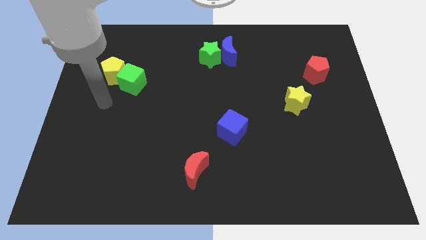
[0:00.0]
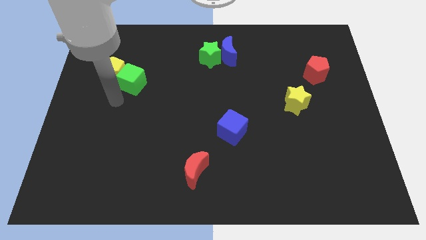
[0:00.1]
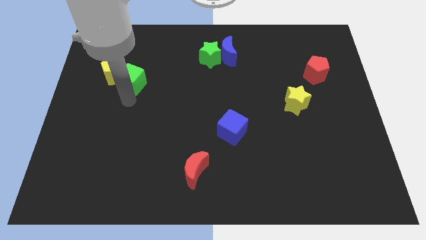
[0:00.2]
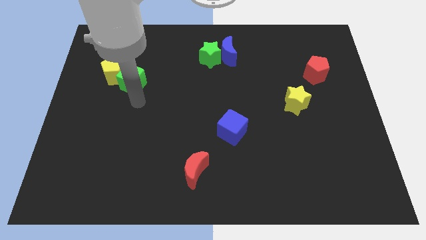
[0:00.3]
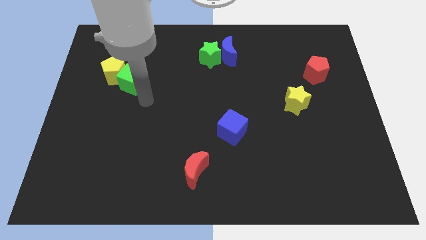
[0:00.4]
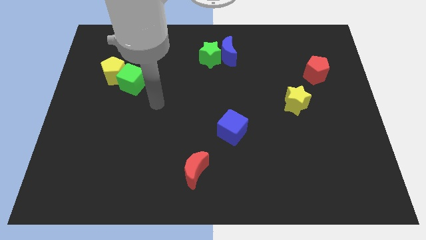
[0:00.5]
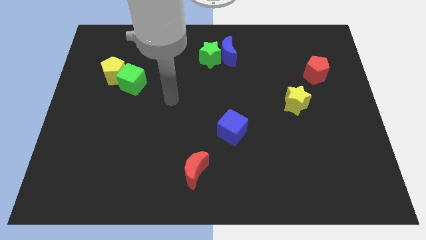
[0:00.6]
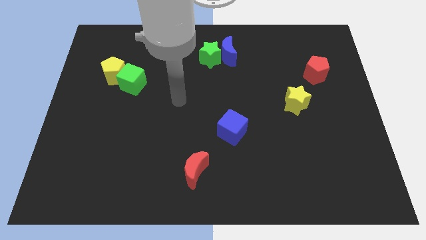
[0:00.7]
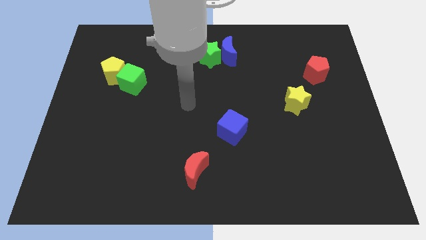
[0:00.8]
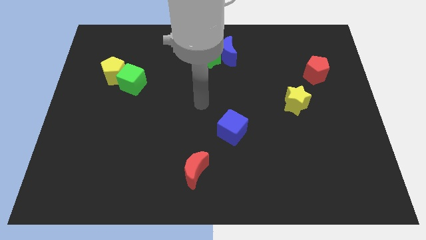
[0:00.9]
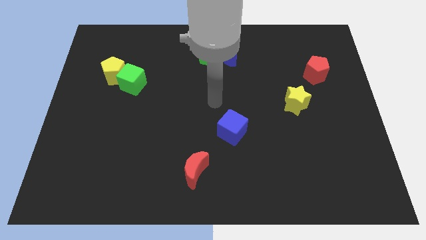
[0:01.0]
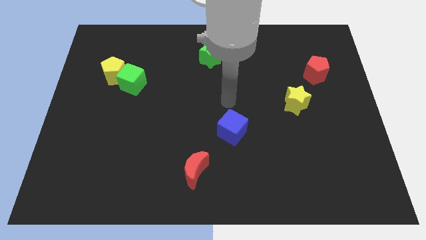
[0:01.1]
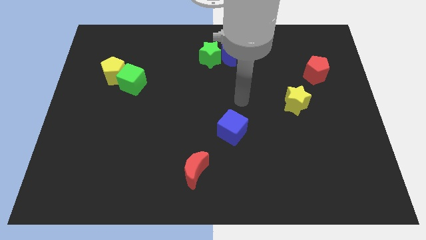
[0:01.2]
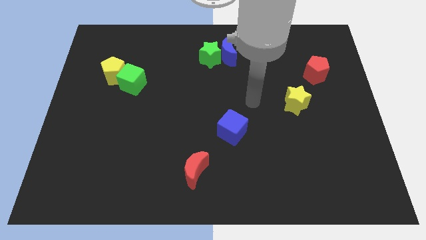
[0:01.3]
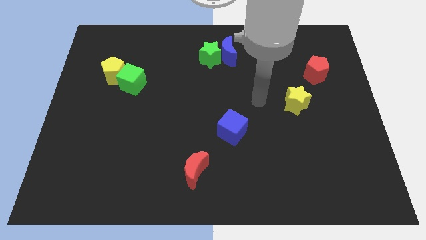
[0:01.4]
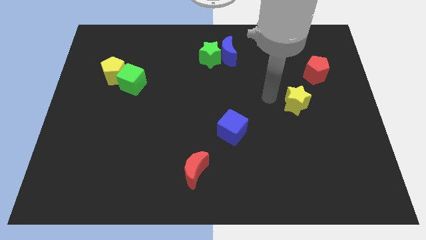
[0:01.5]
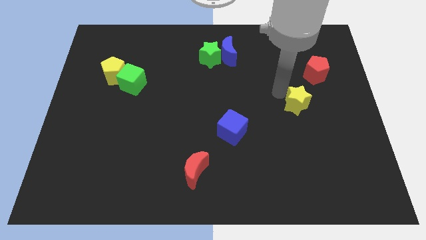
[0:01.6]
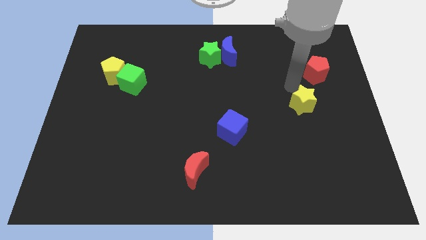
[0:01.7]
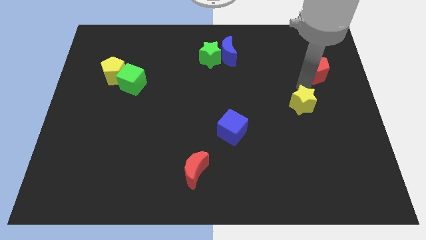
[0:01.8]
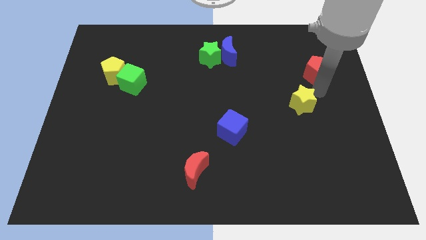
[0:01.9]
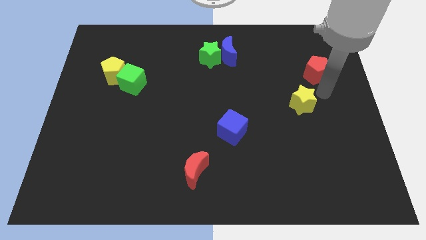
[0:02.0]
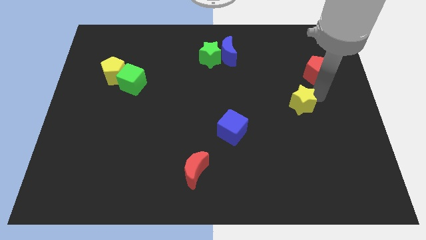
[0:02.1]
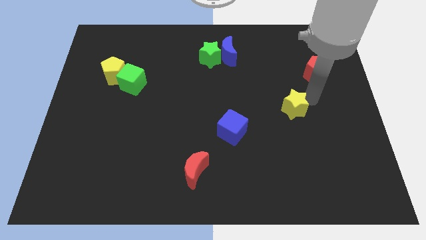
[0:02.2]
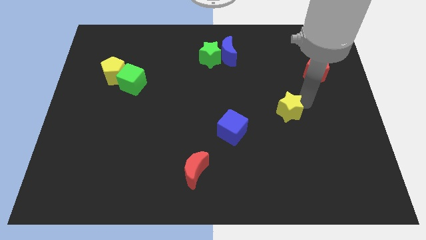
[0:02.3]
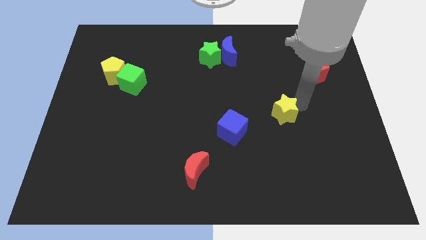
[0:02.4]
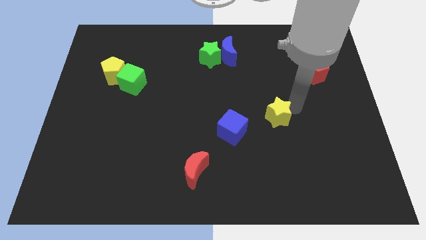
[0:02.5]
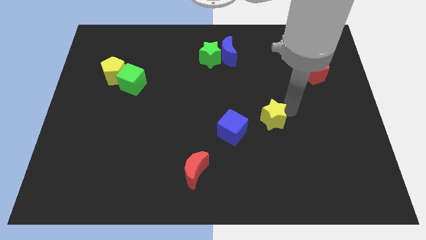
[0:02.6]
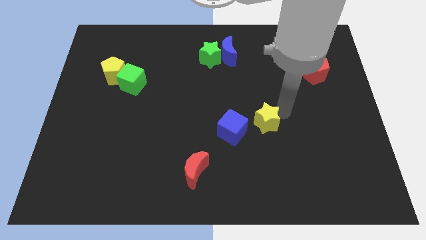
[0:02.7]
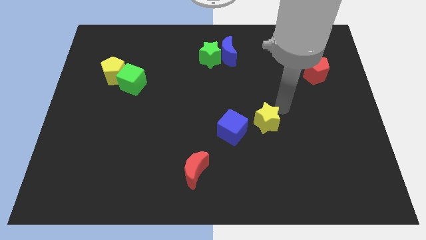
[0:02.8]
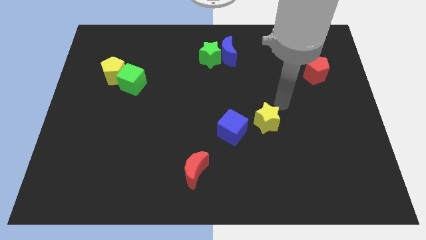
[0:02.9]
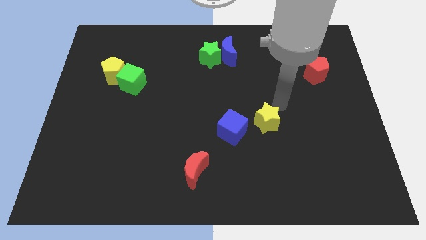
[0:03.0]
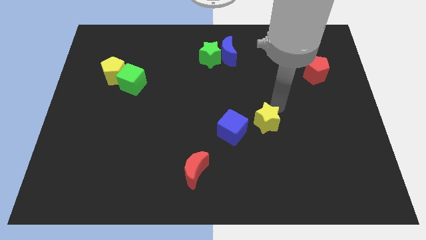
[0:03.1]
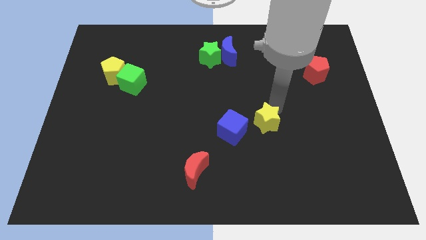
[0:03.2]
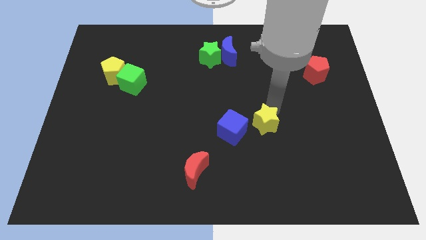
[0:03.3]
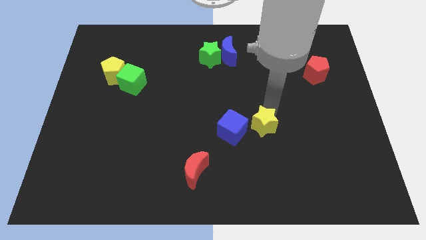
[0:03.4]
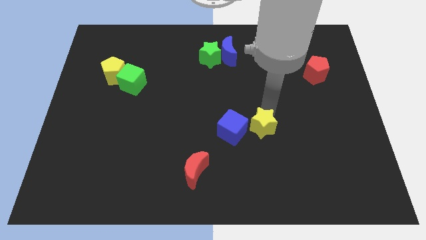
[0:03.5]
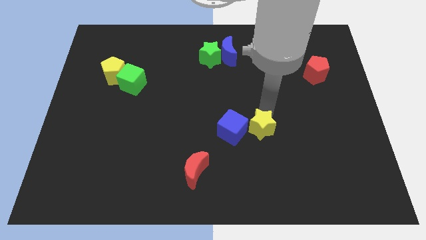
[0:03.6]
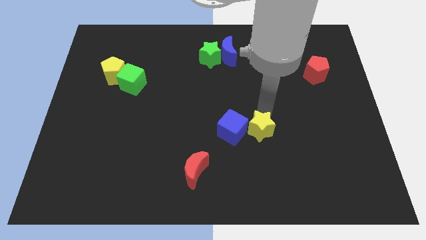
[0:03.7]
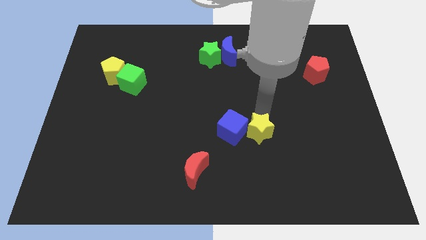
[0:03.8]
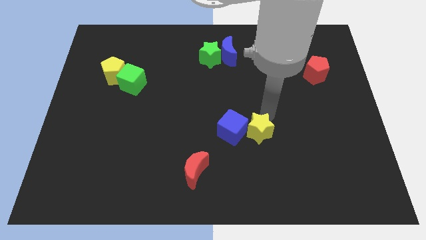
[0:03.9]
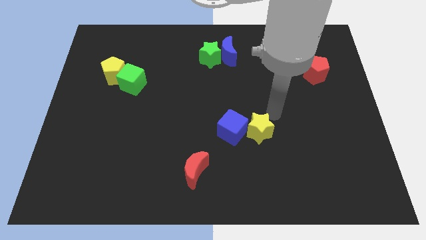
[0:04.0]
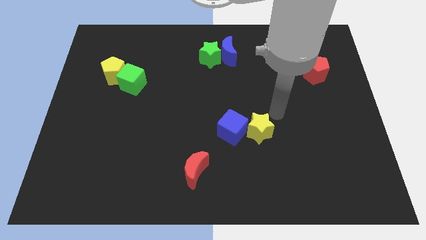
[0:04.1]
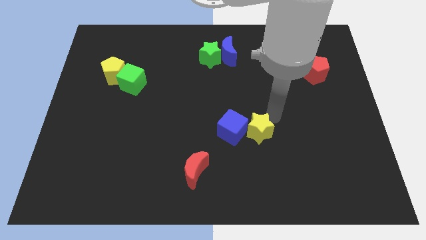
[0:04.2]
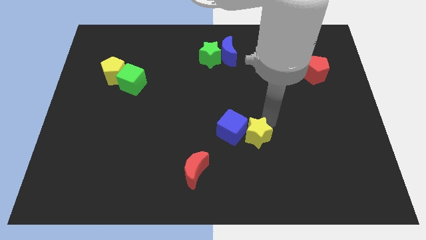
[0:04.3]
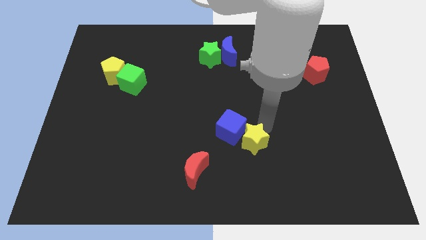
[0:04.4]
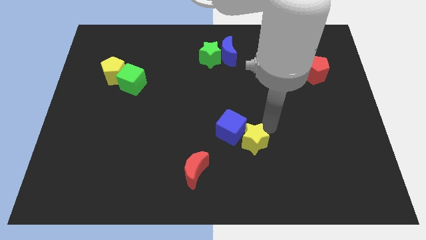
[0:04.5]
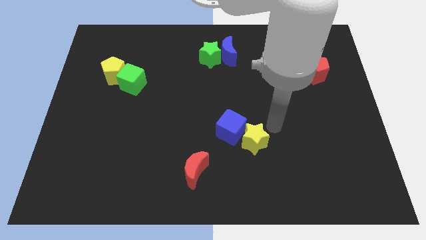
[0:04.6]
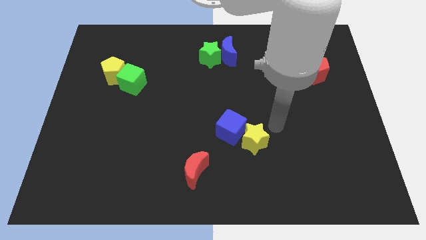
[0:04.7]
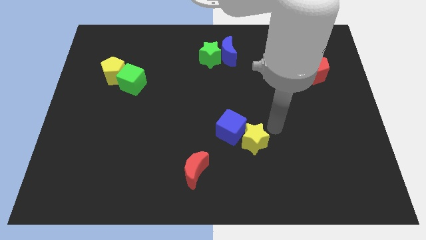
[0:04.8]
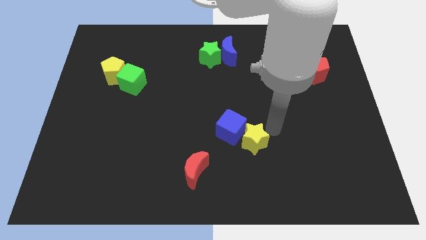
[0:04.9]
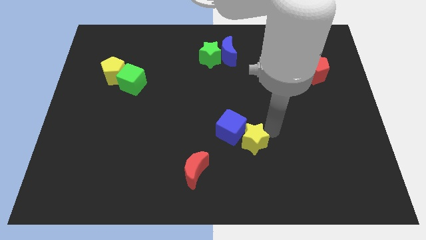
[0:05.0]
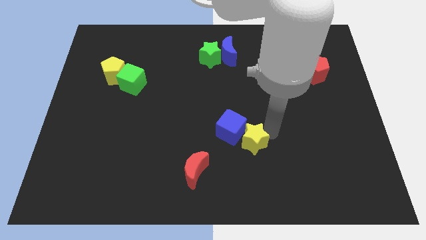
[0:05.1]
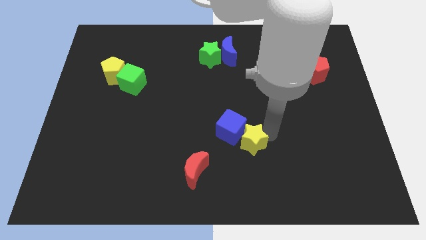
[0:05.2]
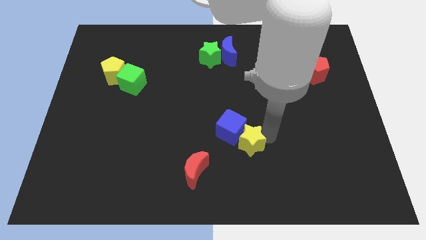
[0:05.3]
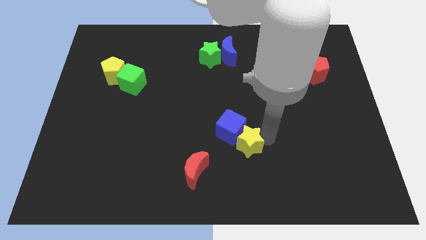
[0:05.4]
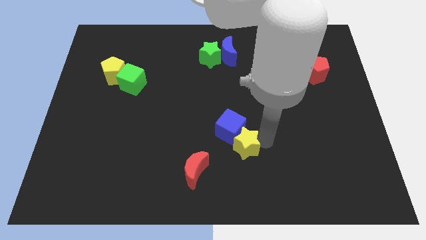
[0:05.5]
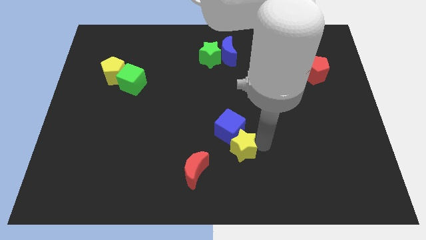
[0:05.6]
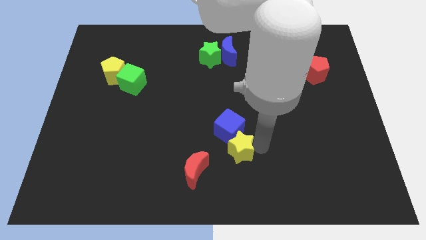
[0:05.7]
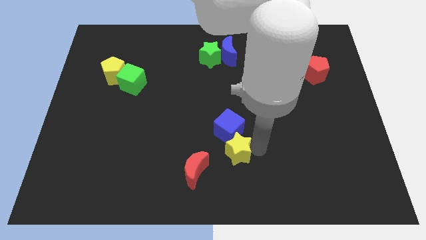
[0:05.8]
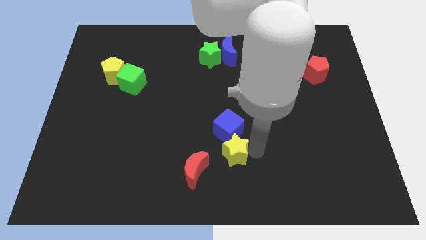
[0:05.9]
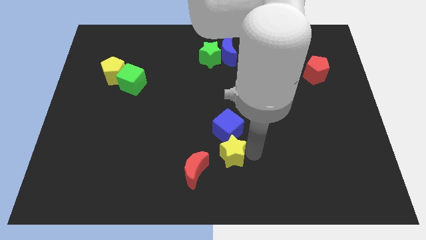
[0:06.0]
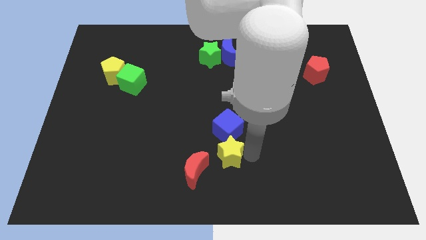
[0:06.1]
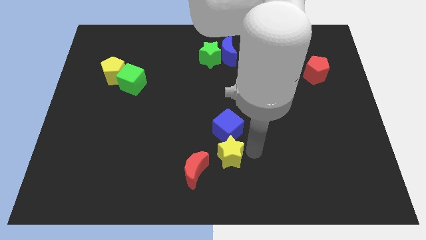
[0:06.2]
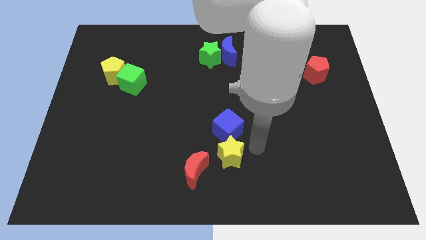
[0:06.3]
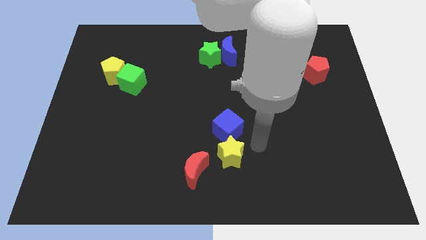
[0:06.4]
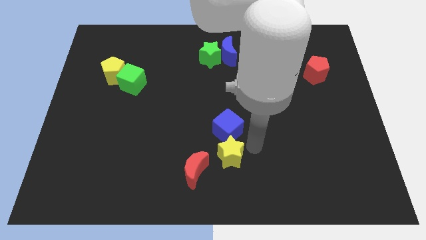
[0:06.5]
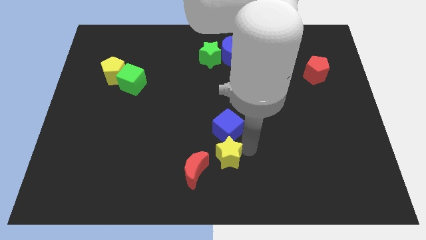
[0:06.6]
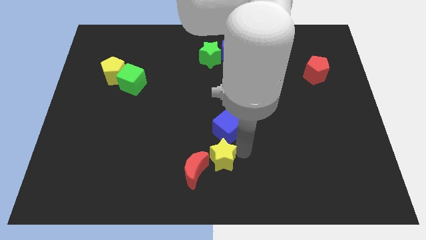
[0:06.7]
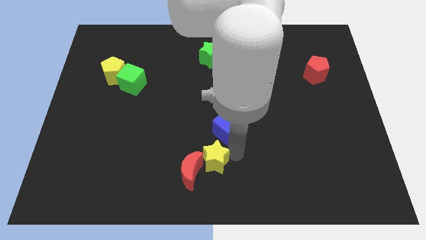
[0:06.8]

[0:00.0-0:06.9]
slide the yellow star next to the red moon
